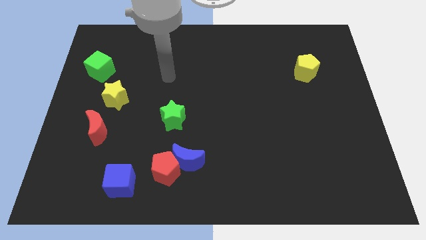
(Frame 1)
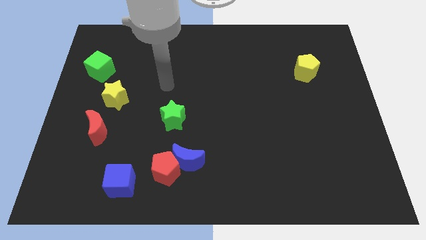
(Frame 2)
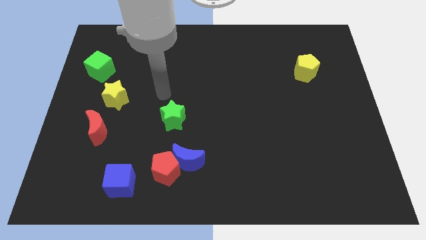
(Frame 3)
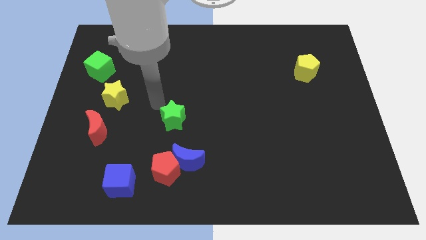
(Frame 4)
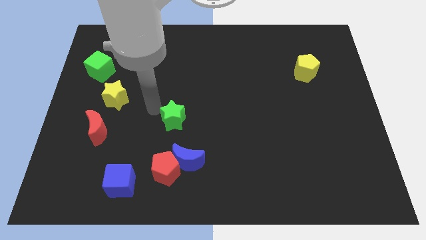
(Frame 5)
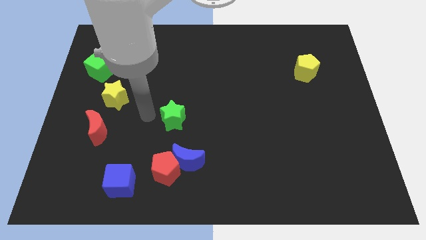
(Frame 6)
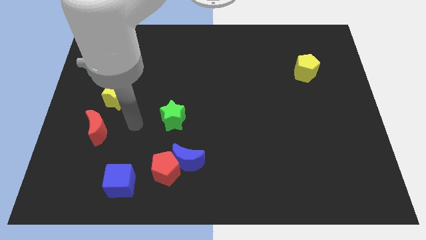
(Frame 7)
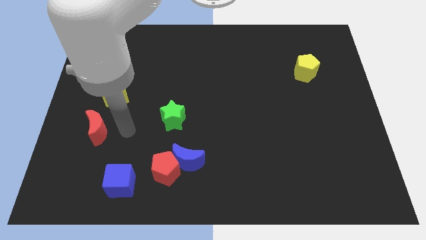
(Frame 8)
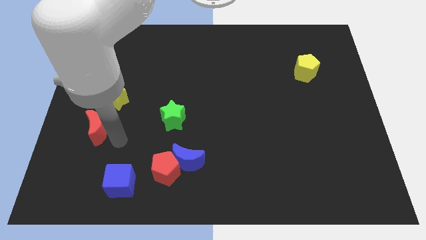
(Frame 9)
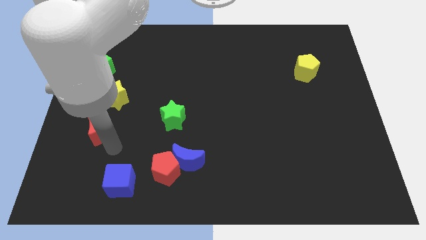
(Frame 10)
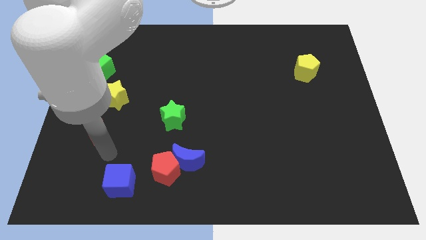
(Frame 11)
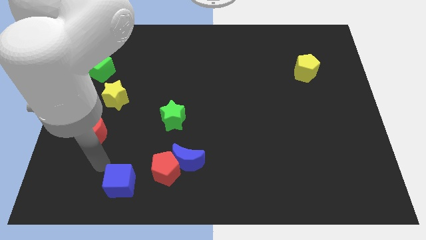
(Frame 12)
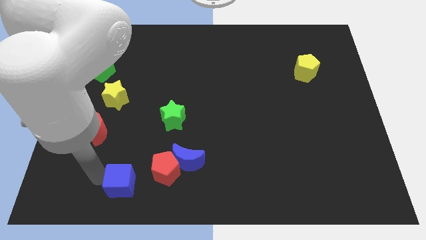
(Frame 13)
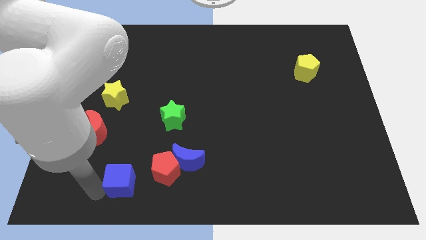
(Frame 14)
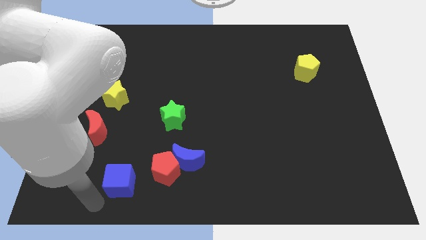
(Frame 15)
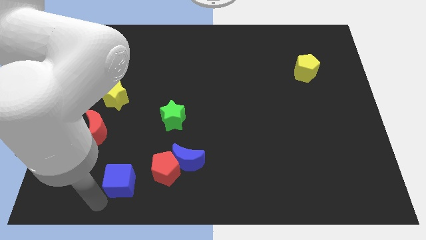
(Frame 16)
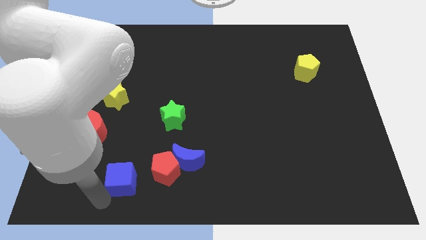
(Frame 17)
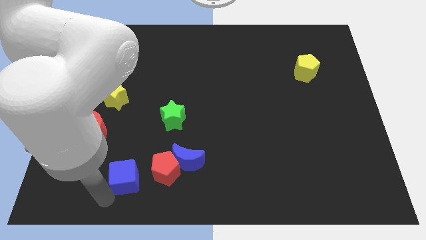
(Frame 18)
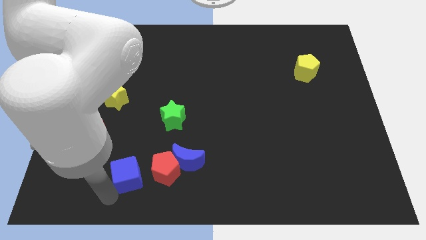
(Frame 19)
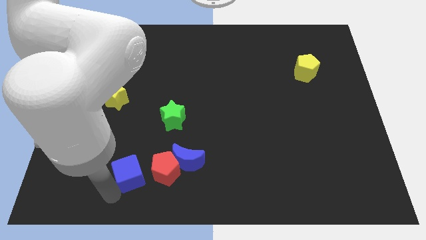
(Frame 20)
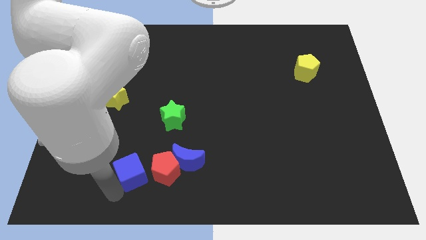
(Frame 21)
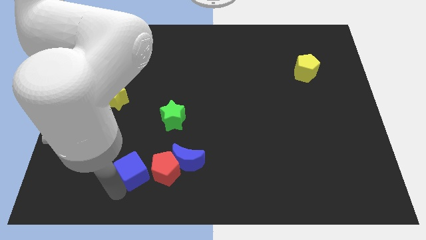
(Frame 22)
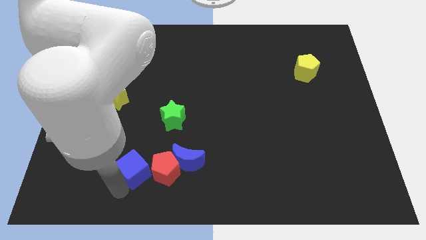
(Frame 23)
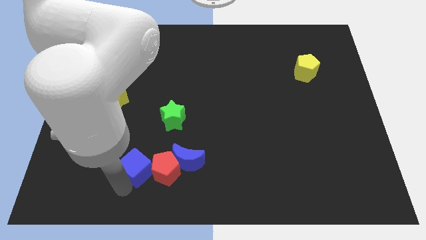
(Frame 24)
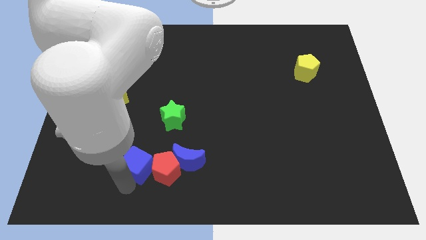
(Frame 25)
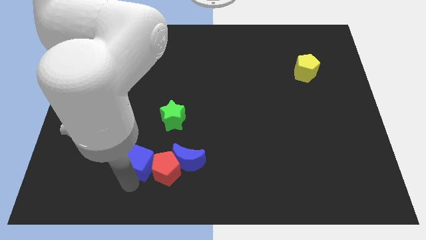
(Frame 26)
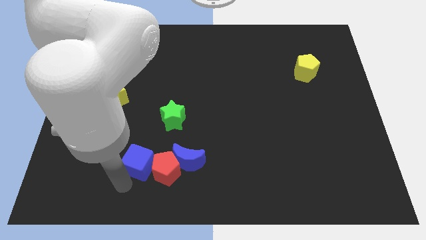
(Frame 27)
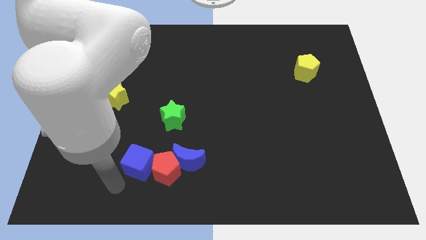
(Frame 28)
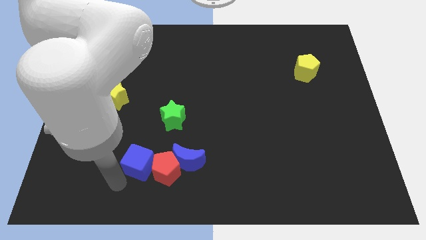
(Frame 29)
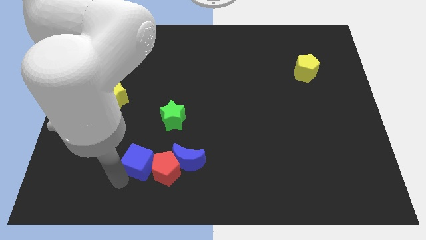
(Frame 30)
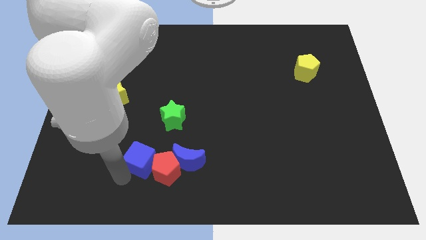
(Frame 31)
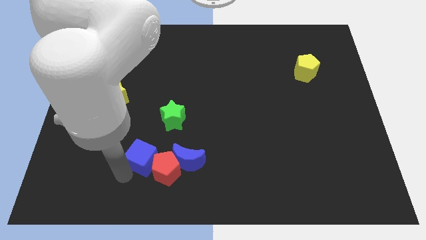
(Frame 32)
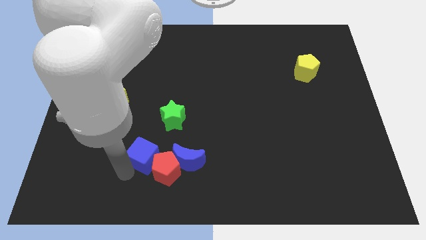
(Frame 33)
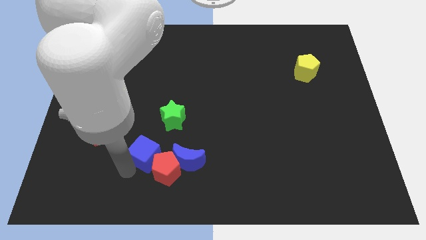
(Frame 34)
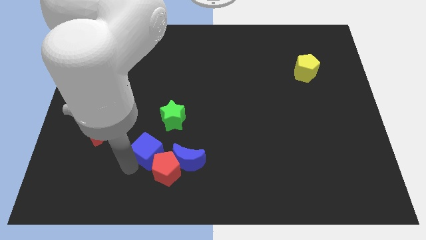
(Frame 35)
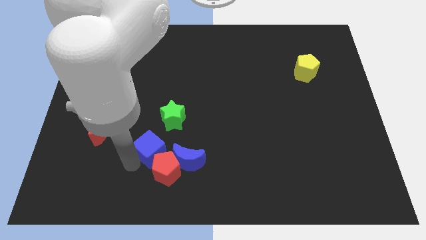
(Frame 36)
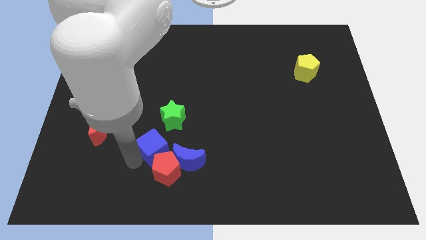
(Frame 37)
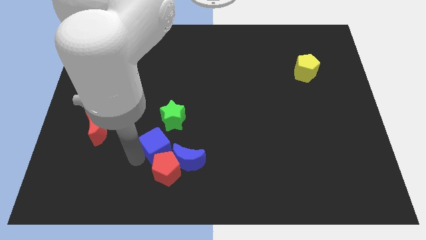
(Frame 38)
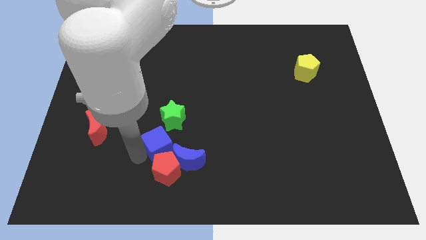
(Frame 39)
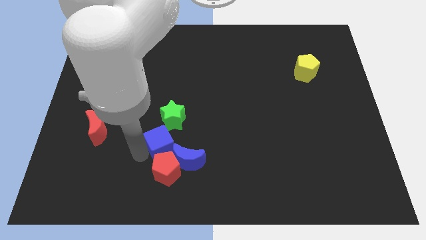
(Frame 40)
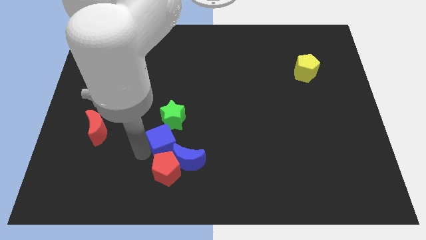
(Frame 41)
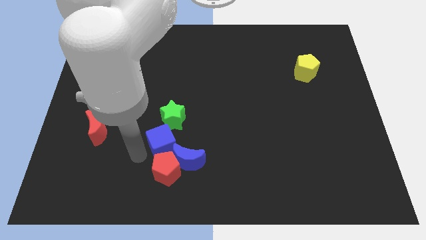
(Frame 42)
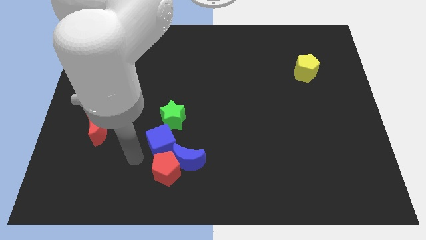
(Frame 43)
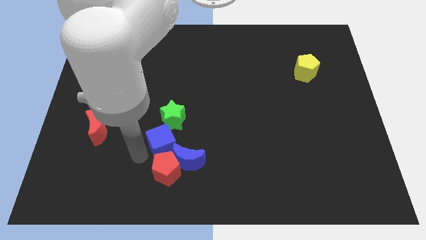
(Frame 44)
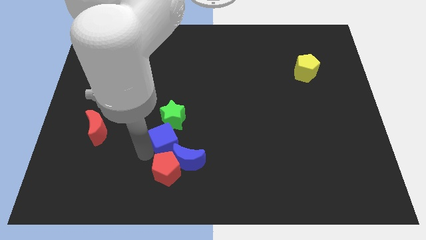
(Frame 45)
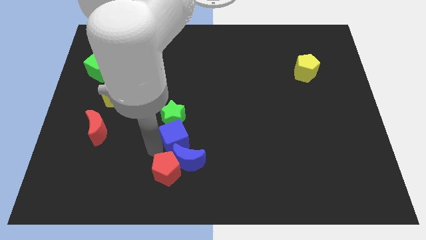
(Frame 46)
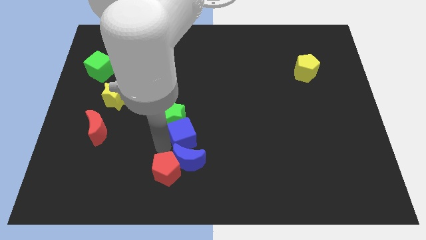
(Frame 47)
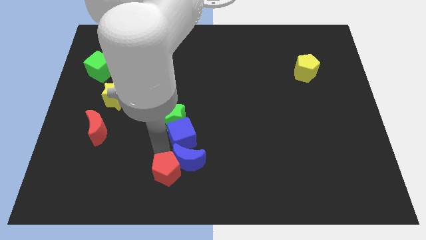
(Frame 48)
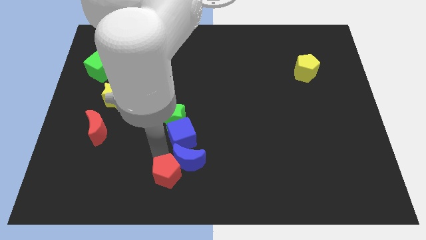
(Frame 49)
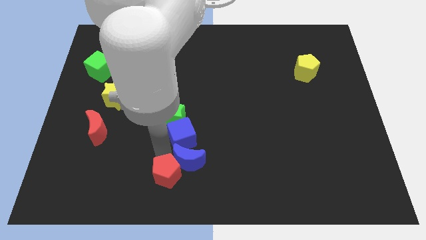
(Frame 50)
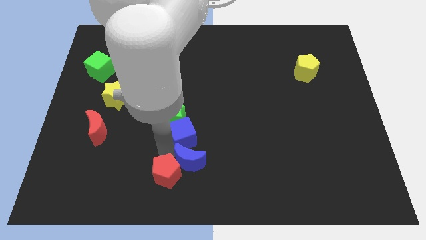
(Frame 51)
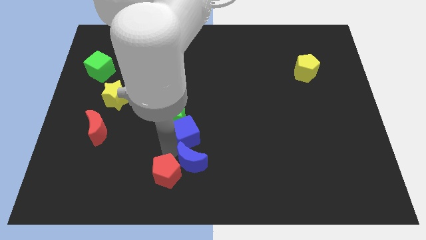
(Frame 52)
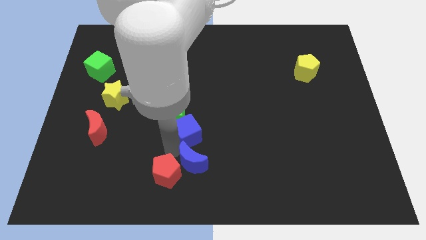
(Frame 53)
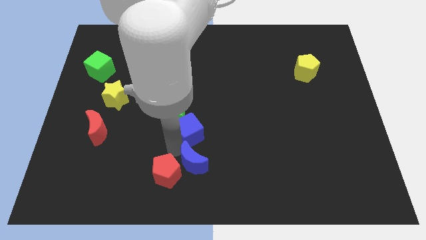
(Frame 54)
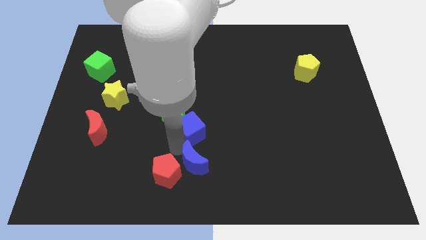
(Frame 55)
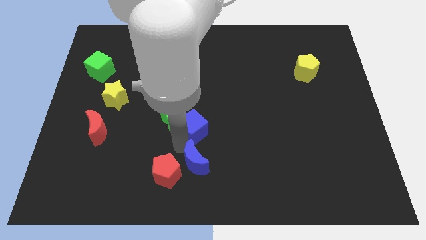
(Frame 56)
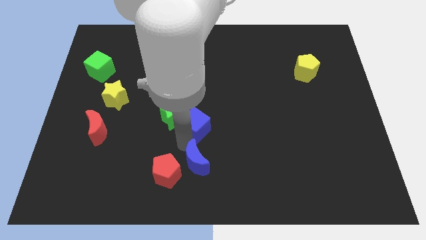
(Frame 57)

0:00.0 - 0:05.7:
slide the blue cube up and then right

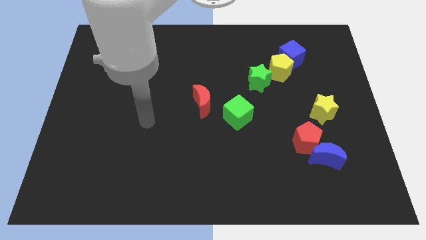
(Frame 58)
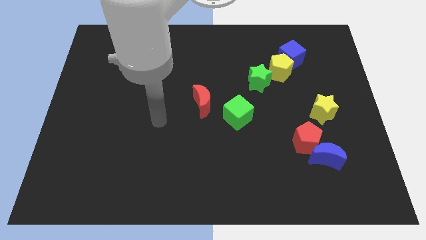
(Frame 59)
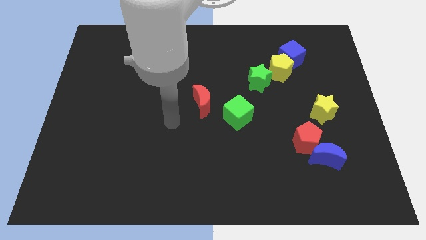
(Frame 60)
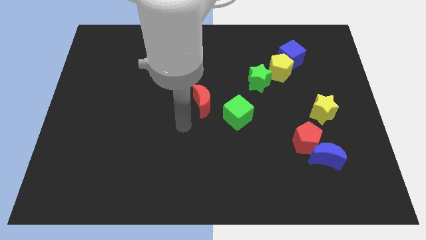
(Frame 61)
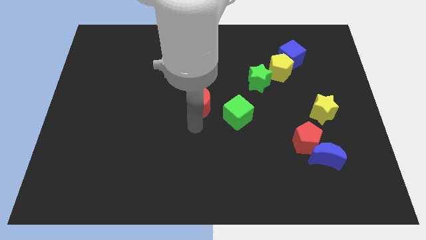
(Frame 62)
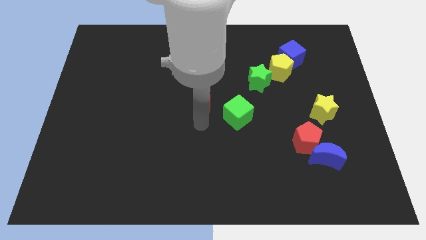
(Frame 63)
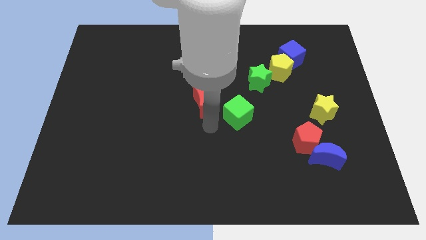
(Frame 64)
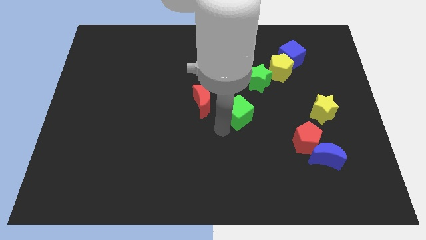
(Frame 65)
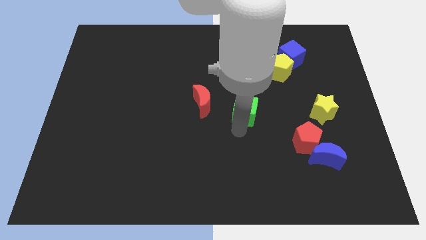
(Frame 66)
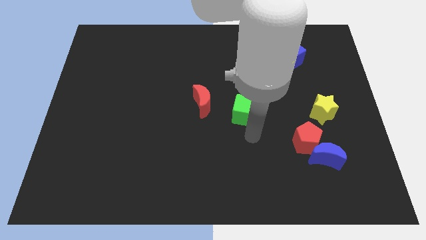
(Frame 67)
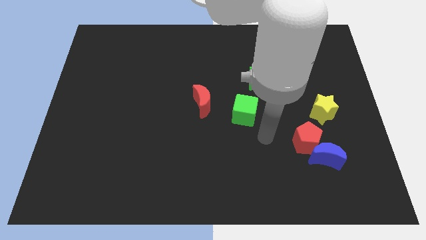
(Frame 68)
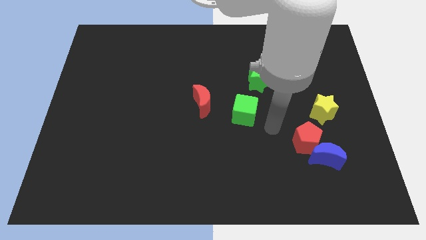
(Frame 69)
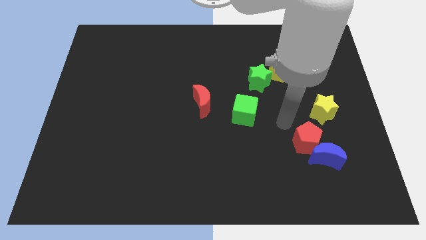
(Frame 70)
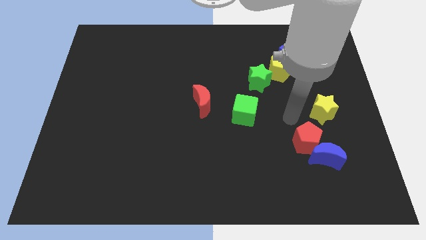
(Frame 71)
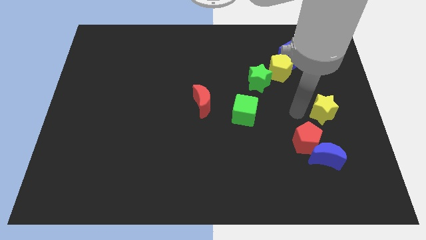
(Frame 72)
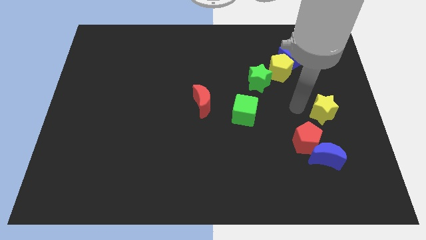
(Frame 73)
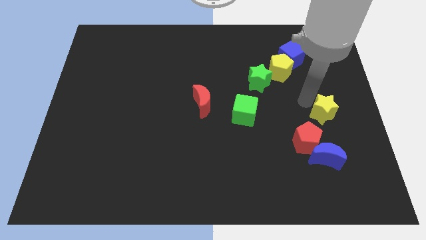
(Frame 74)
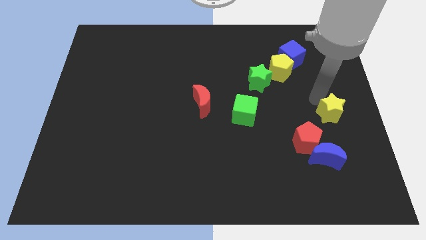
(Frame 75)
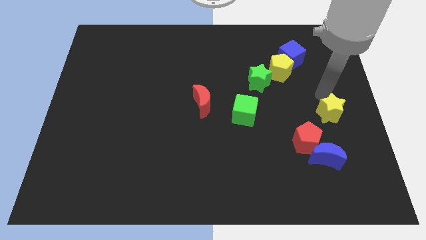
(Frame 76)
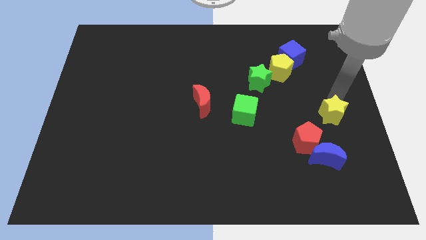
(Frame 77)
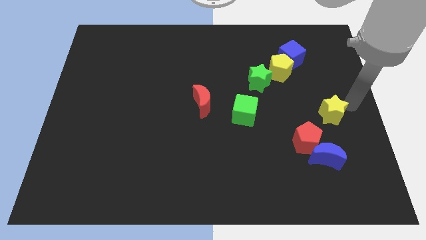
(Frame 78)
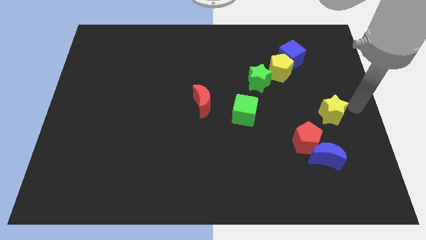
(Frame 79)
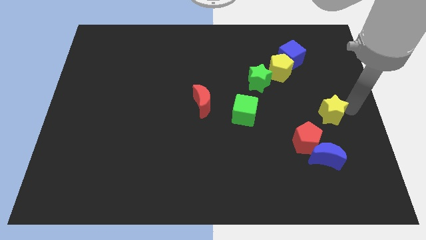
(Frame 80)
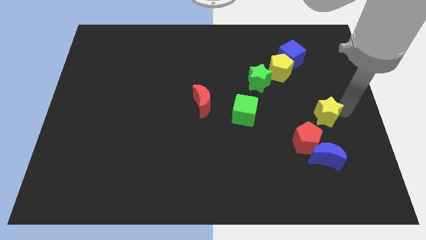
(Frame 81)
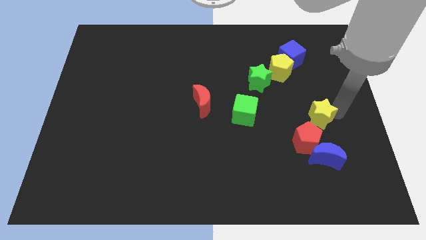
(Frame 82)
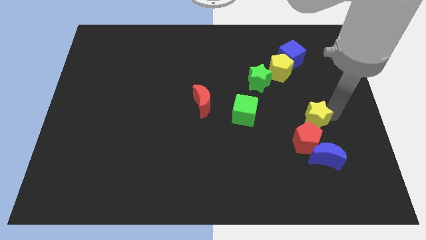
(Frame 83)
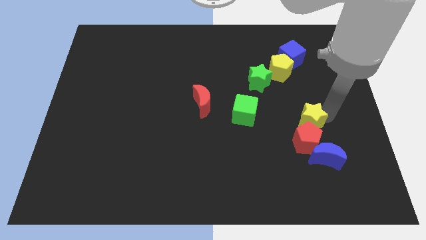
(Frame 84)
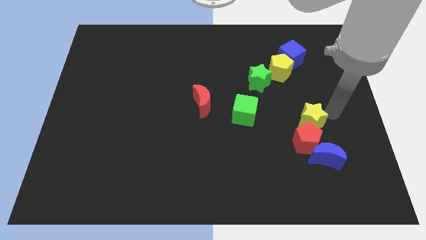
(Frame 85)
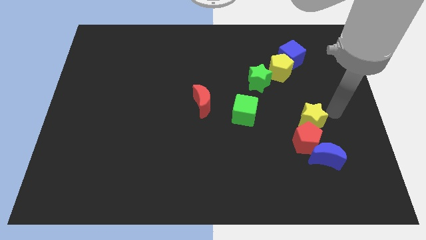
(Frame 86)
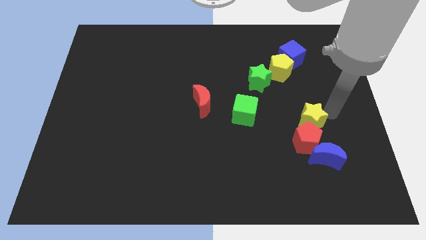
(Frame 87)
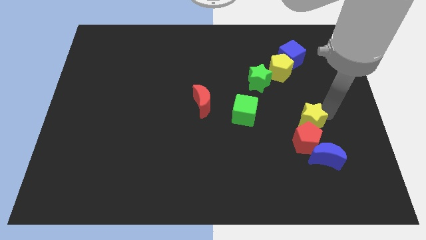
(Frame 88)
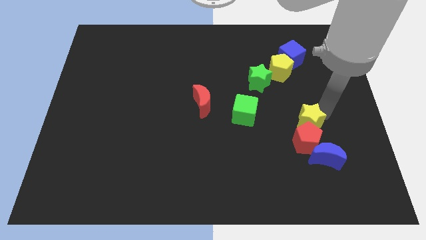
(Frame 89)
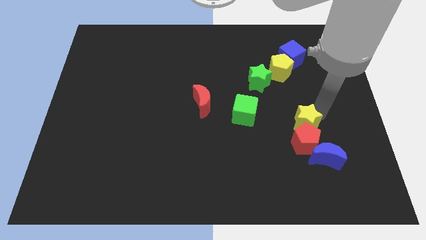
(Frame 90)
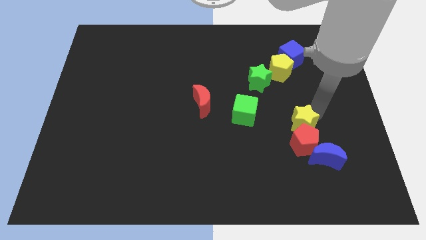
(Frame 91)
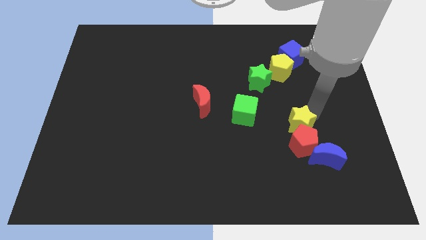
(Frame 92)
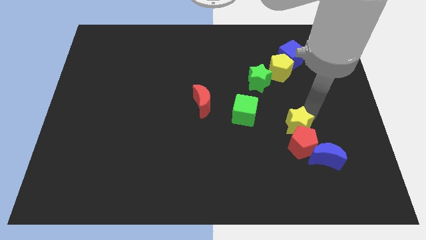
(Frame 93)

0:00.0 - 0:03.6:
slightly move the yellow star down and then to the left
